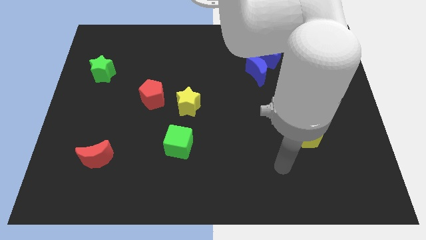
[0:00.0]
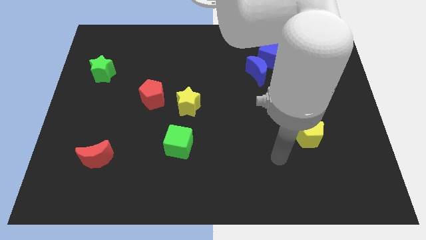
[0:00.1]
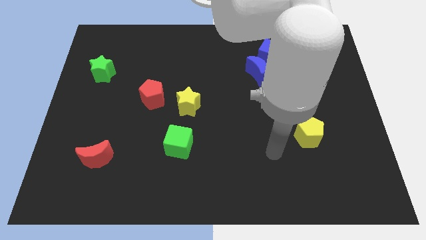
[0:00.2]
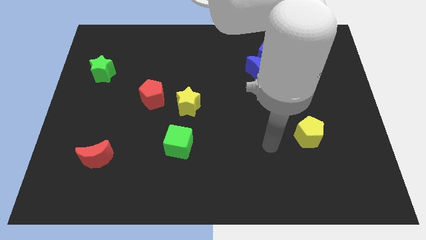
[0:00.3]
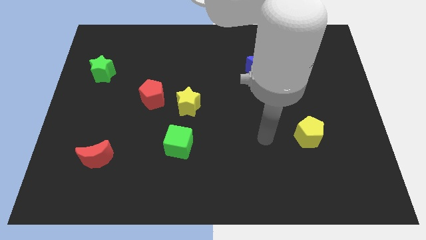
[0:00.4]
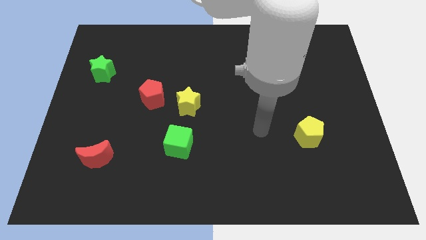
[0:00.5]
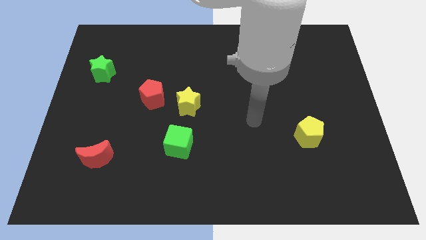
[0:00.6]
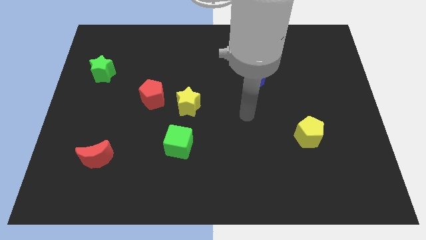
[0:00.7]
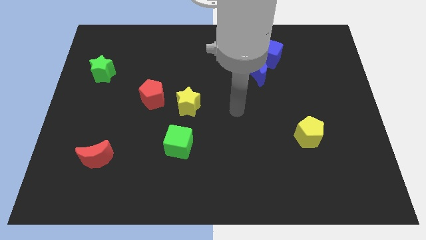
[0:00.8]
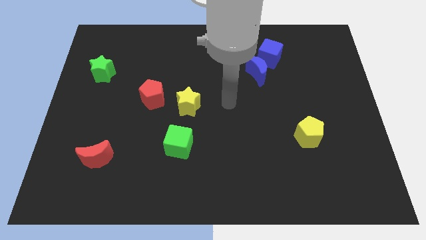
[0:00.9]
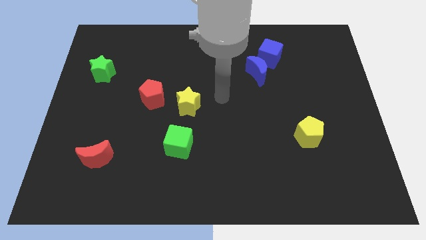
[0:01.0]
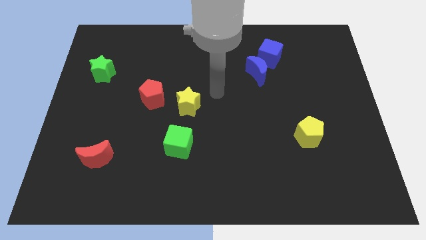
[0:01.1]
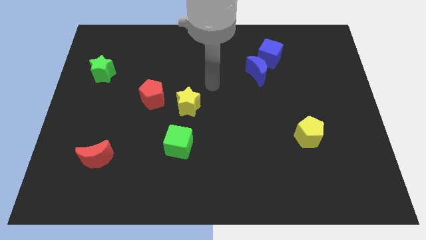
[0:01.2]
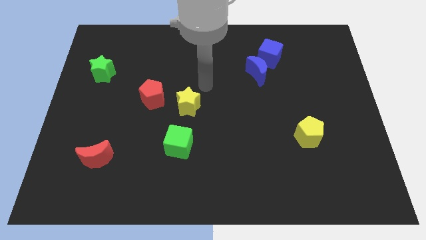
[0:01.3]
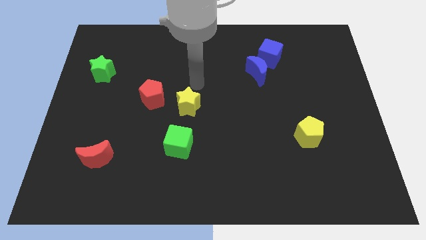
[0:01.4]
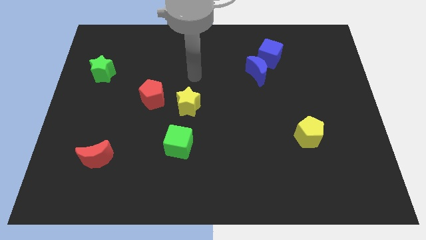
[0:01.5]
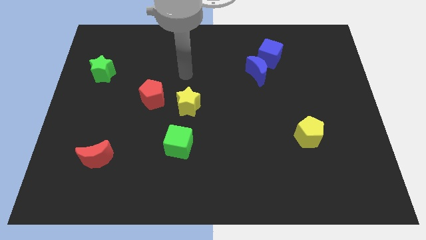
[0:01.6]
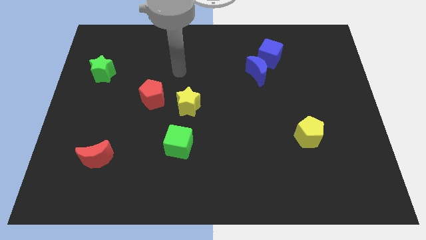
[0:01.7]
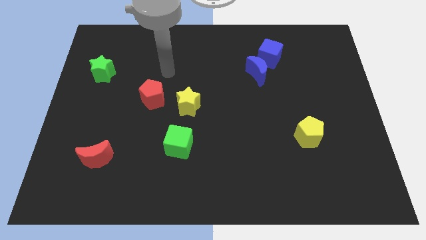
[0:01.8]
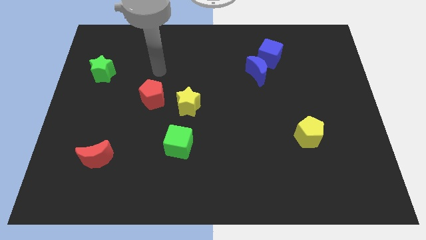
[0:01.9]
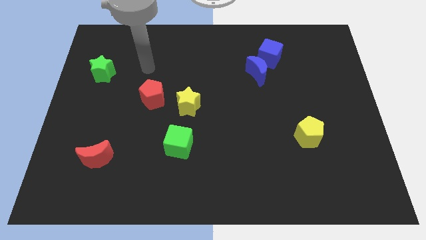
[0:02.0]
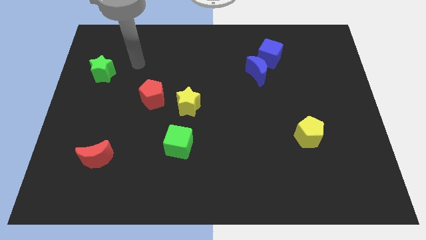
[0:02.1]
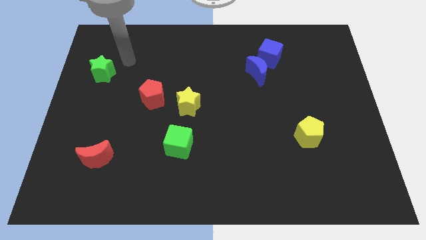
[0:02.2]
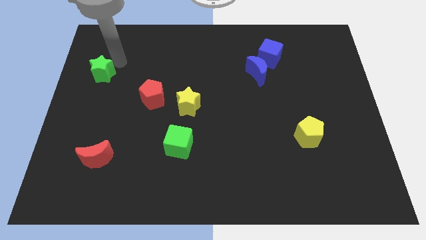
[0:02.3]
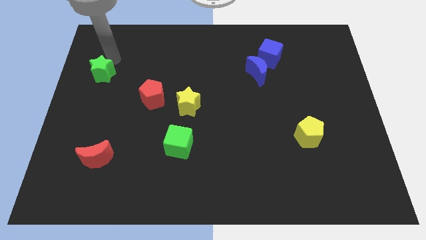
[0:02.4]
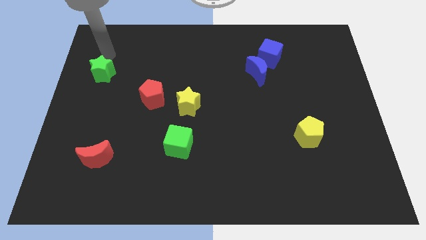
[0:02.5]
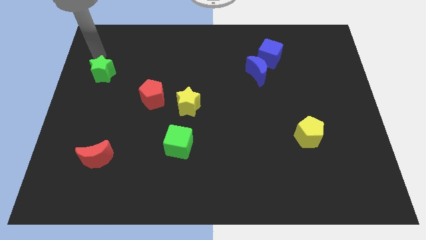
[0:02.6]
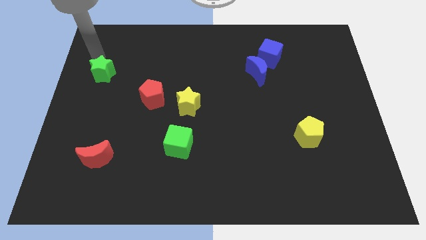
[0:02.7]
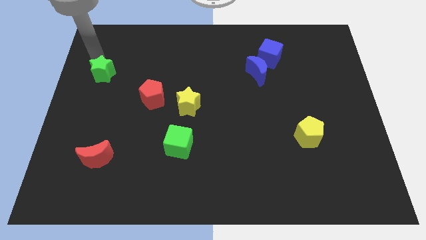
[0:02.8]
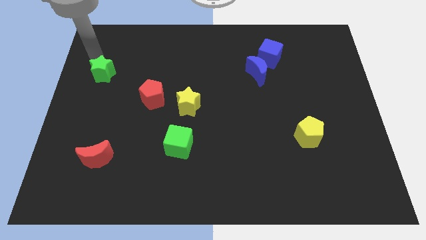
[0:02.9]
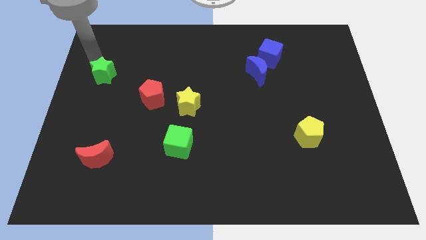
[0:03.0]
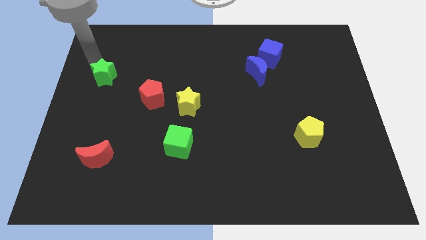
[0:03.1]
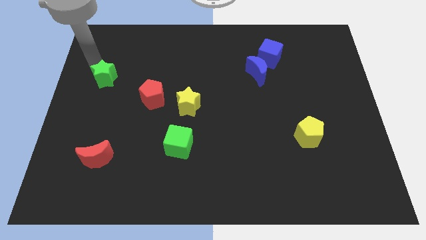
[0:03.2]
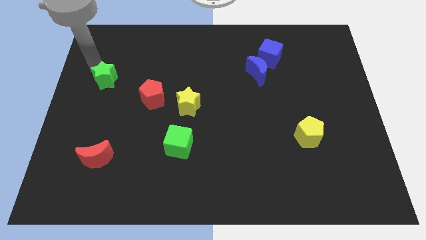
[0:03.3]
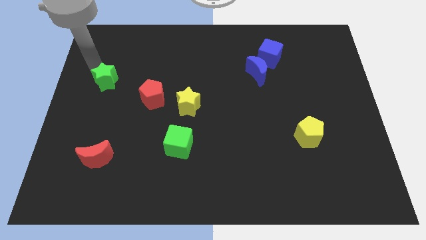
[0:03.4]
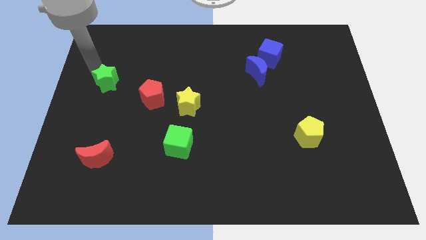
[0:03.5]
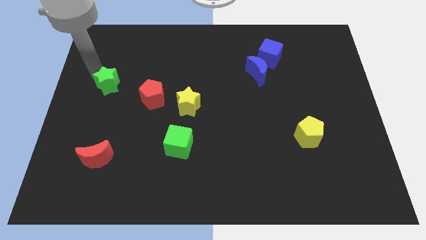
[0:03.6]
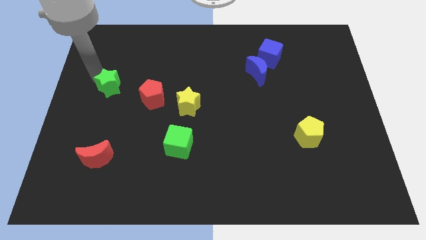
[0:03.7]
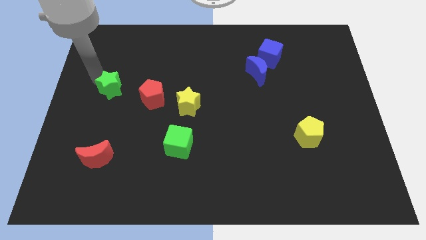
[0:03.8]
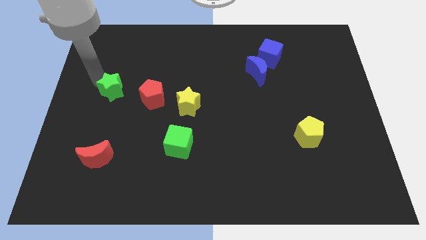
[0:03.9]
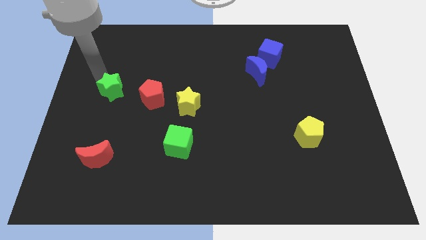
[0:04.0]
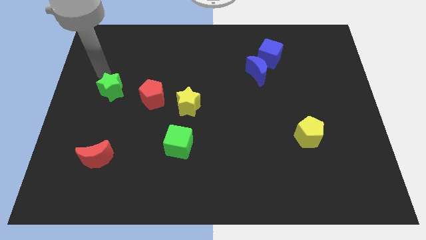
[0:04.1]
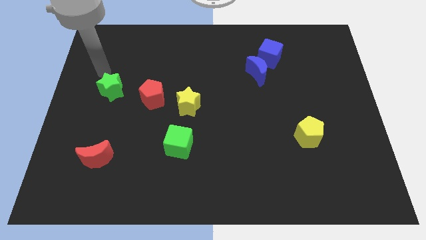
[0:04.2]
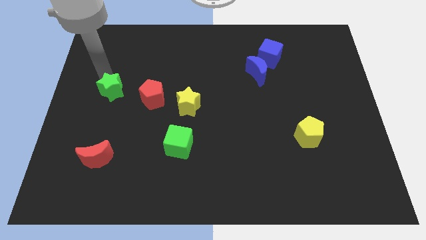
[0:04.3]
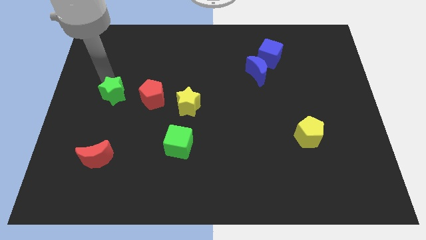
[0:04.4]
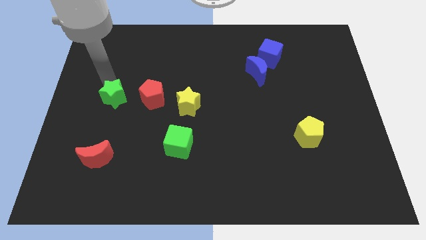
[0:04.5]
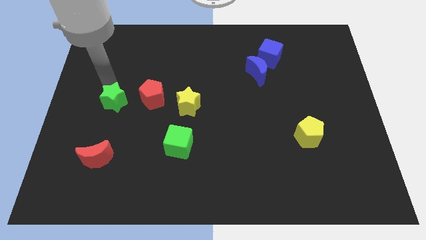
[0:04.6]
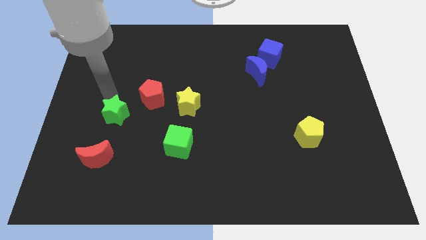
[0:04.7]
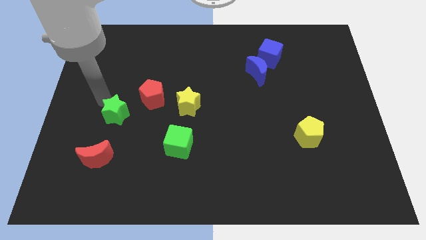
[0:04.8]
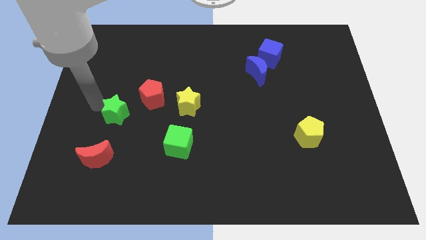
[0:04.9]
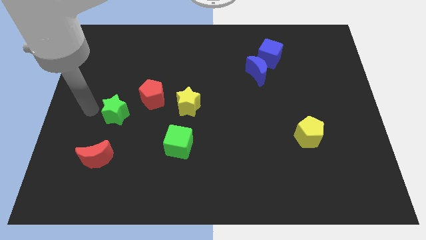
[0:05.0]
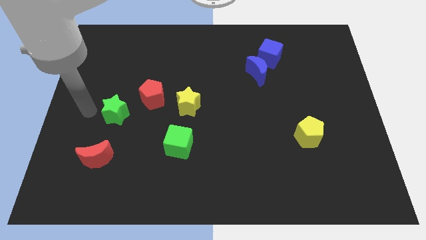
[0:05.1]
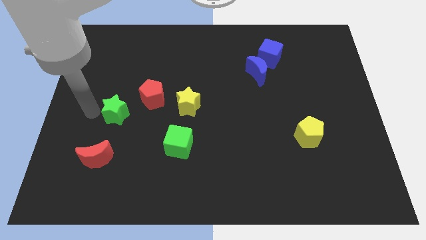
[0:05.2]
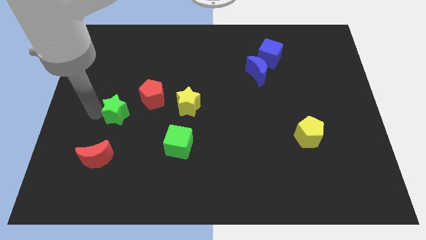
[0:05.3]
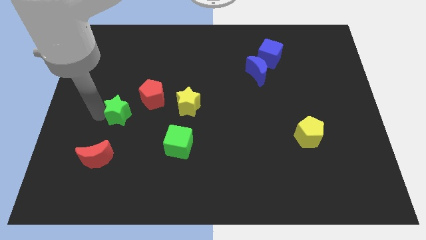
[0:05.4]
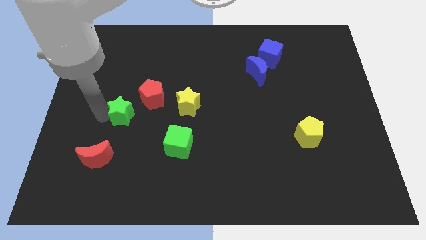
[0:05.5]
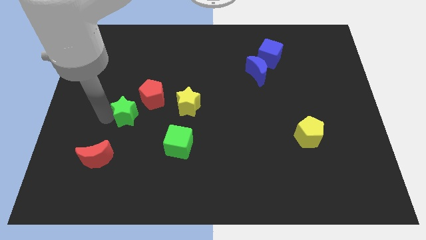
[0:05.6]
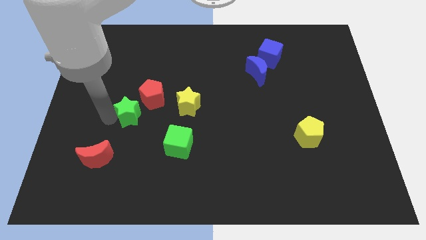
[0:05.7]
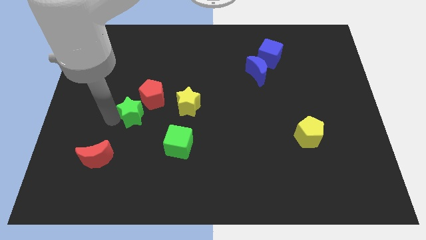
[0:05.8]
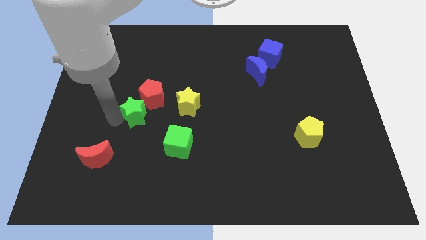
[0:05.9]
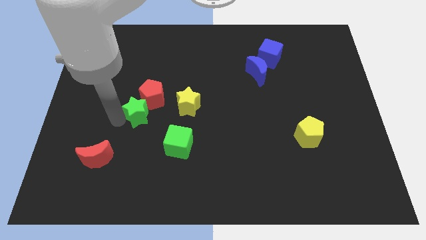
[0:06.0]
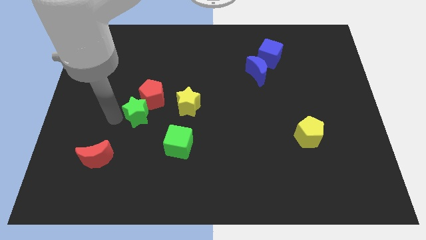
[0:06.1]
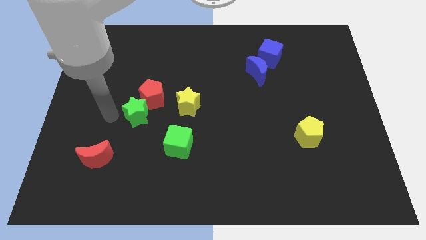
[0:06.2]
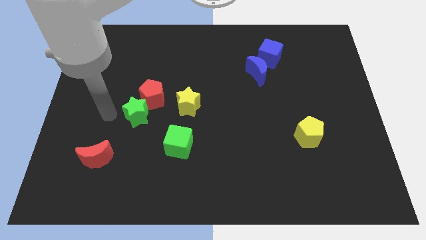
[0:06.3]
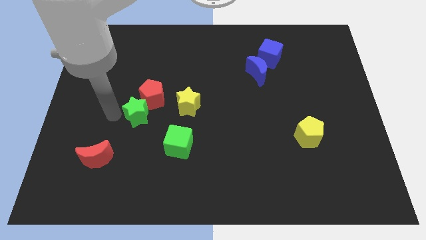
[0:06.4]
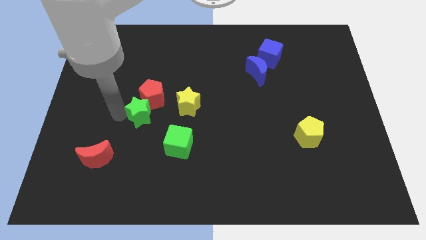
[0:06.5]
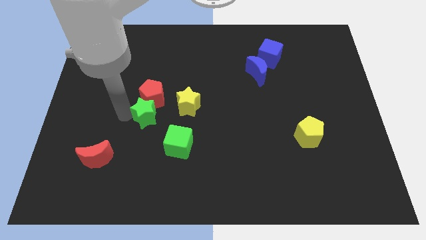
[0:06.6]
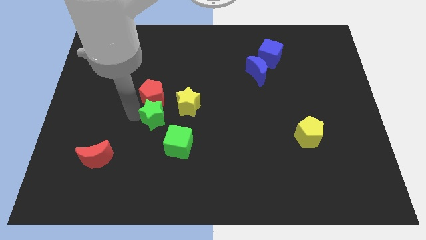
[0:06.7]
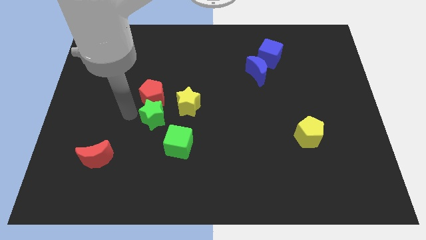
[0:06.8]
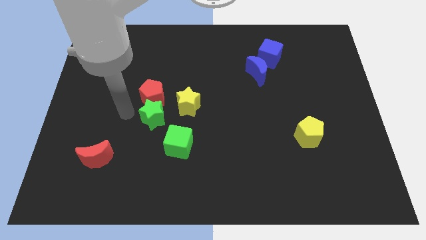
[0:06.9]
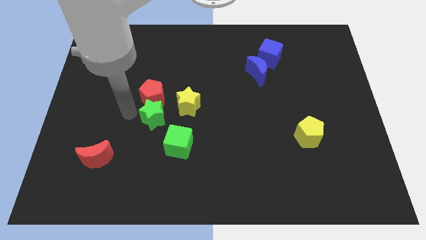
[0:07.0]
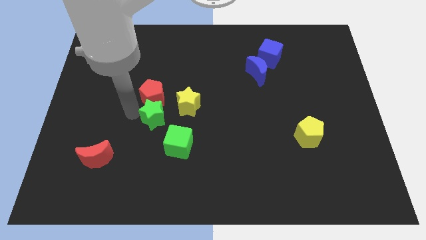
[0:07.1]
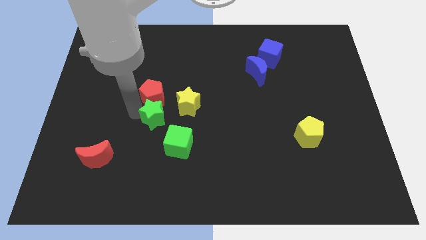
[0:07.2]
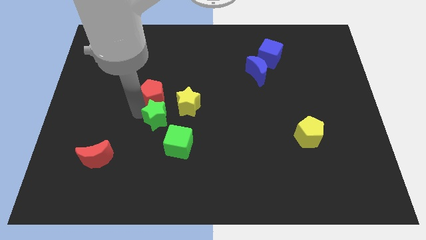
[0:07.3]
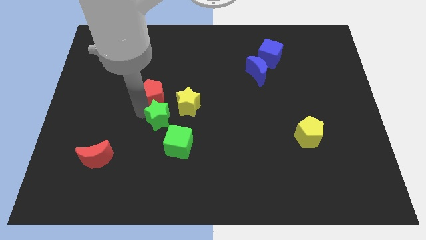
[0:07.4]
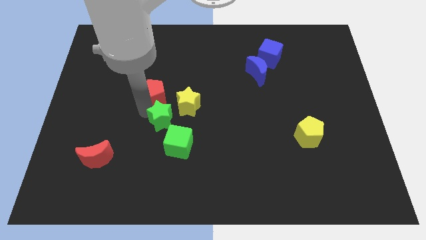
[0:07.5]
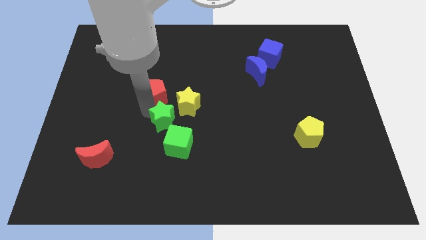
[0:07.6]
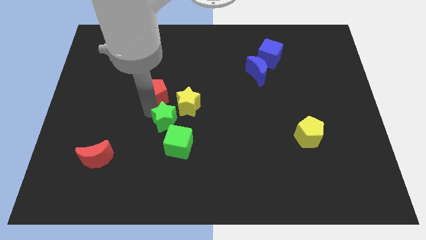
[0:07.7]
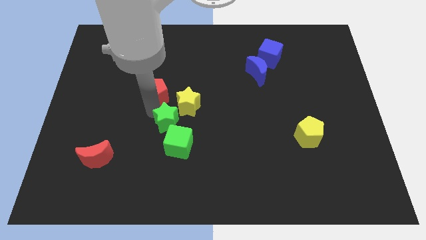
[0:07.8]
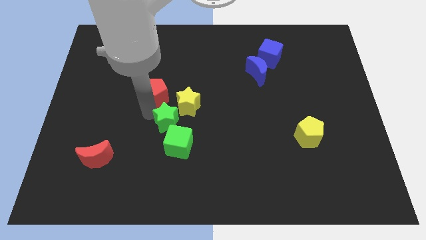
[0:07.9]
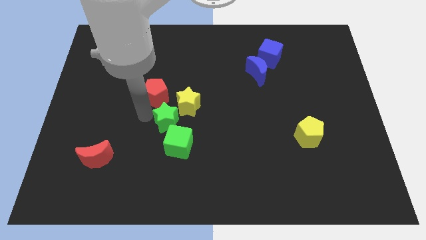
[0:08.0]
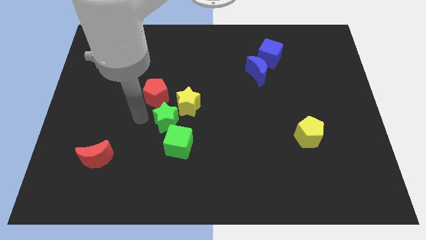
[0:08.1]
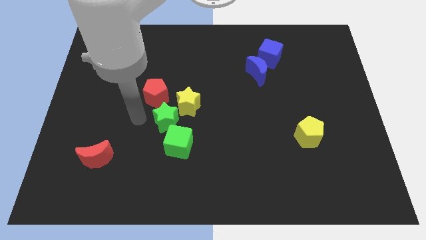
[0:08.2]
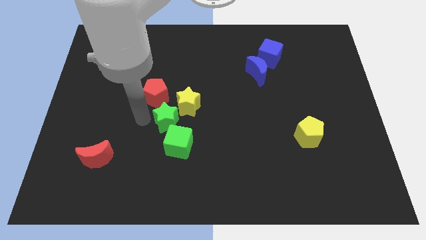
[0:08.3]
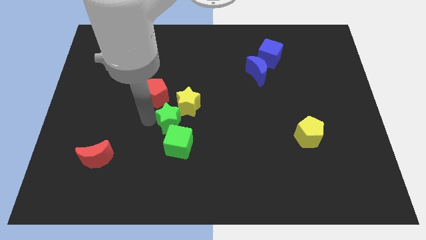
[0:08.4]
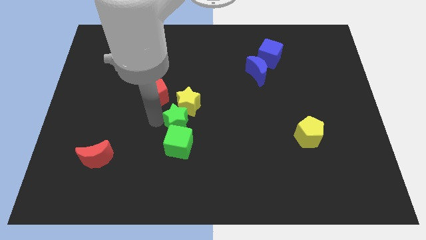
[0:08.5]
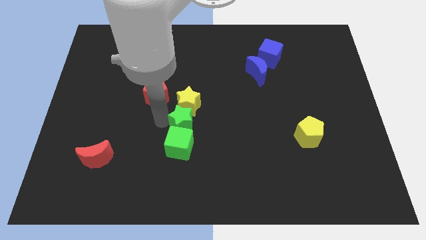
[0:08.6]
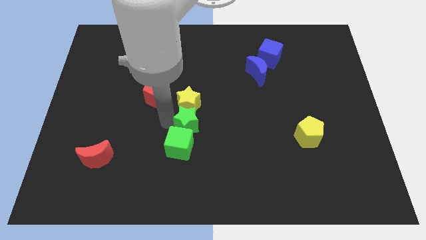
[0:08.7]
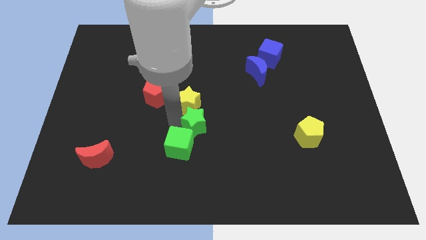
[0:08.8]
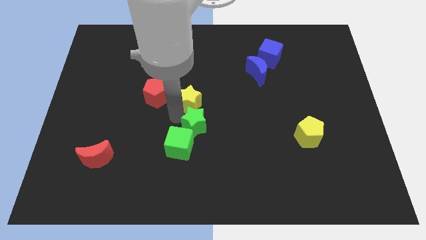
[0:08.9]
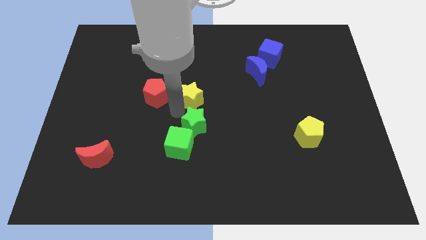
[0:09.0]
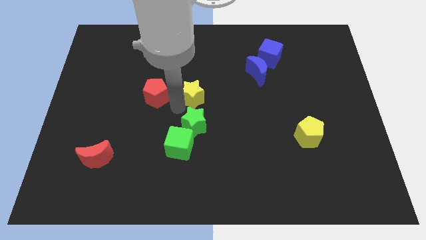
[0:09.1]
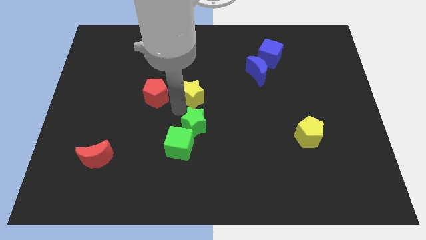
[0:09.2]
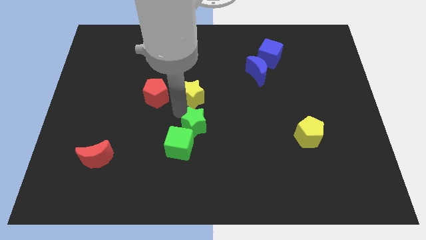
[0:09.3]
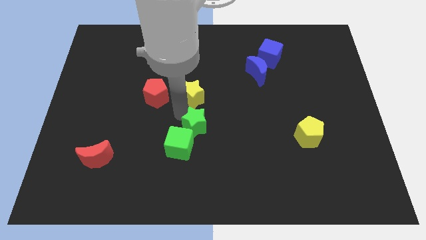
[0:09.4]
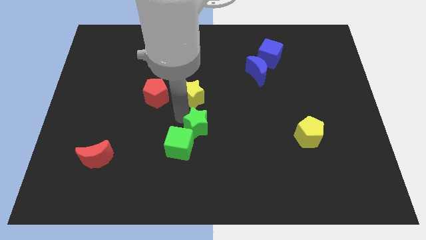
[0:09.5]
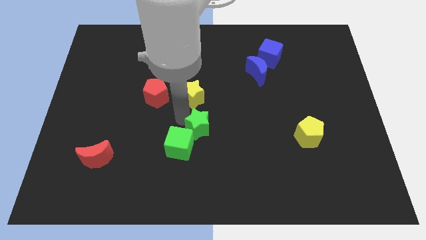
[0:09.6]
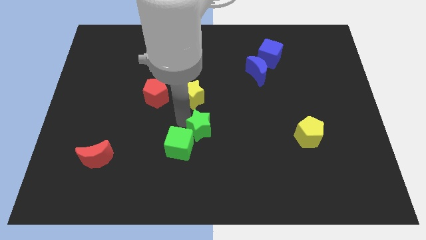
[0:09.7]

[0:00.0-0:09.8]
put the green star to the right of the green cube
